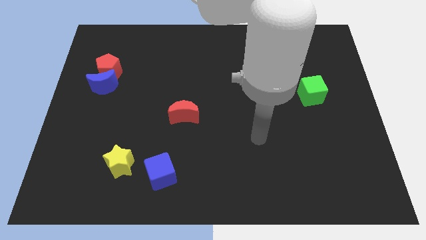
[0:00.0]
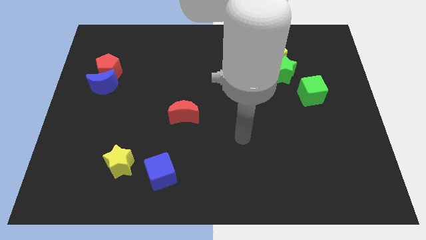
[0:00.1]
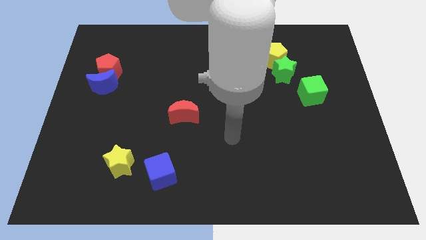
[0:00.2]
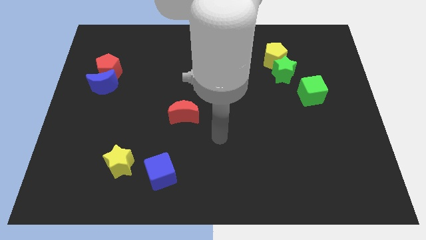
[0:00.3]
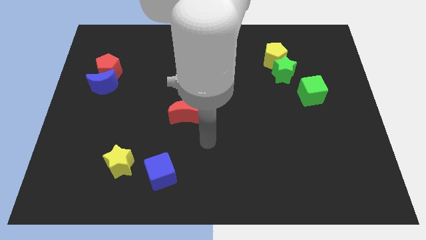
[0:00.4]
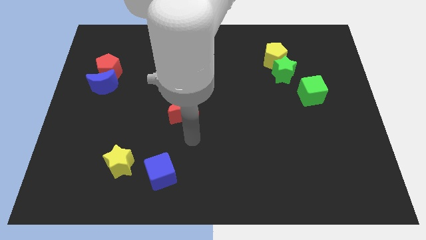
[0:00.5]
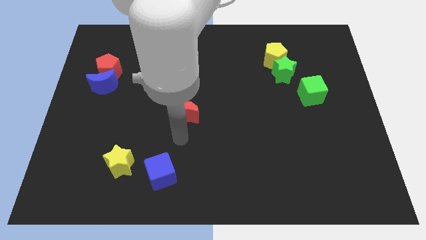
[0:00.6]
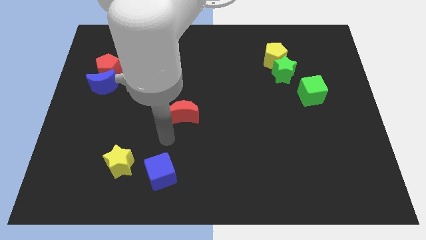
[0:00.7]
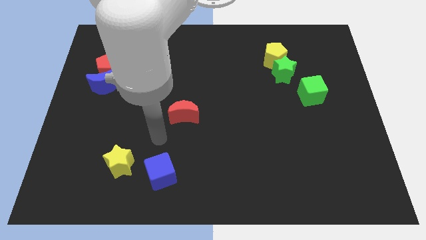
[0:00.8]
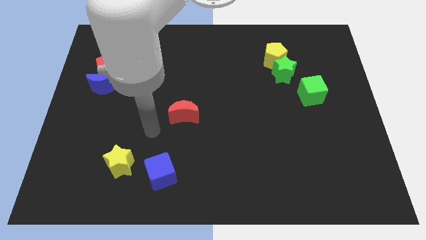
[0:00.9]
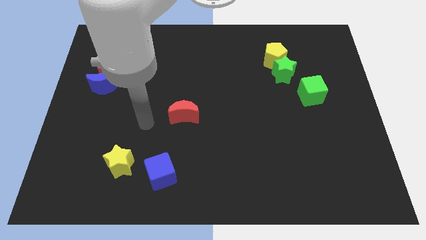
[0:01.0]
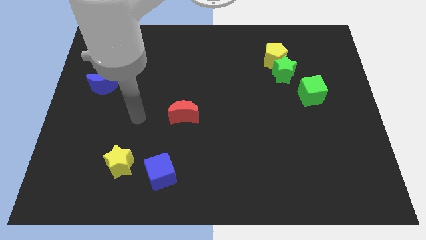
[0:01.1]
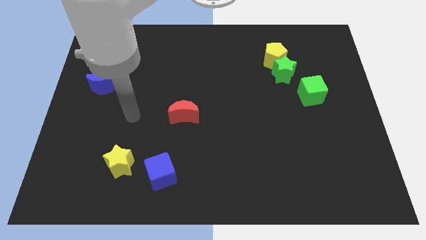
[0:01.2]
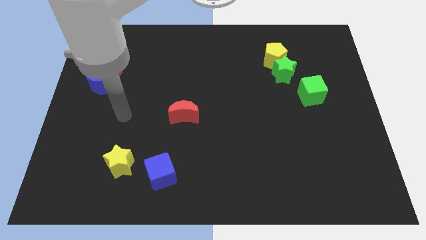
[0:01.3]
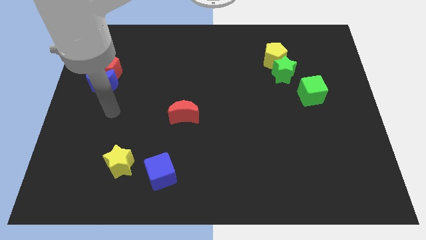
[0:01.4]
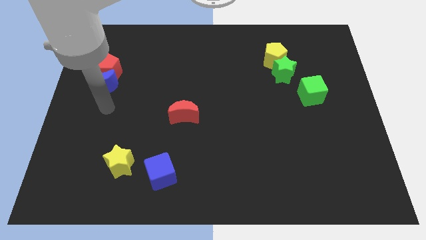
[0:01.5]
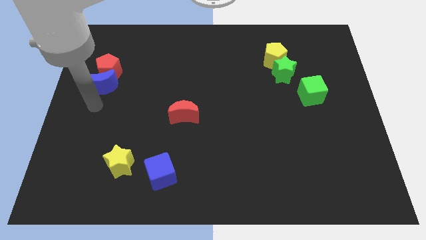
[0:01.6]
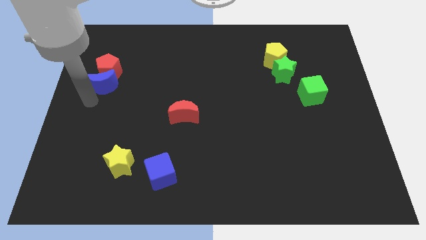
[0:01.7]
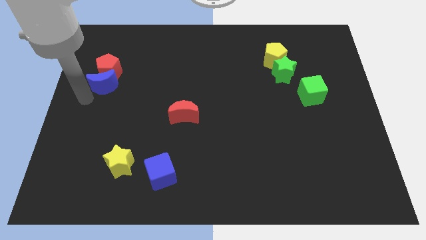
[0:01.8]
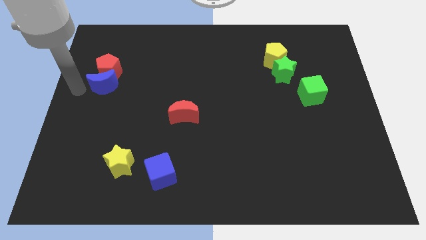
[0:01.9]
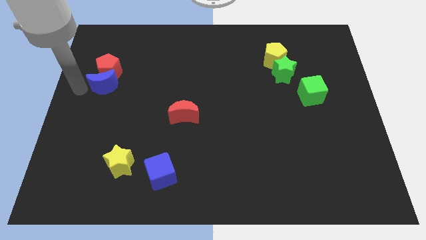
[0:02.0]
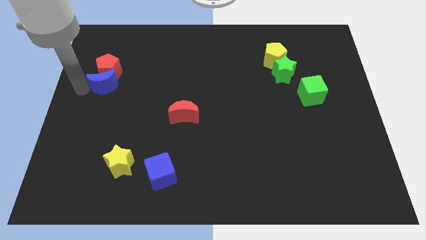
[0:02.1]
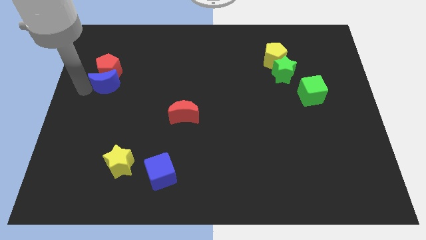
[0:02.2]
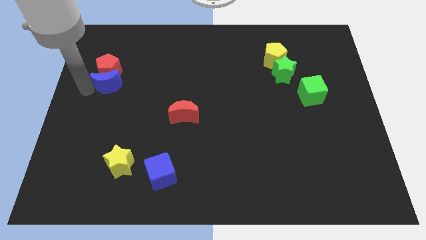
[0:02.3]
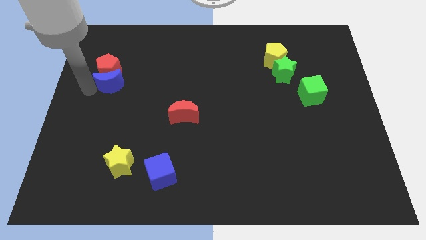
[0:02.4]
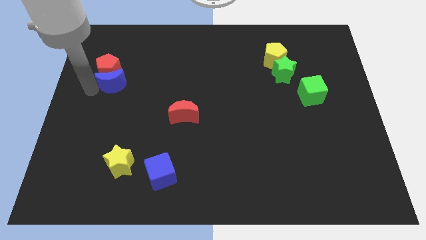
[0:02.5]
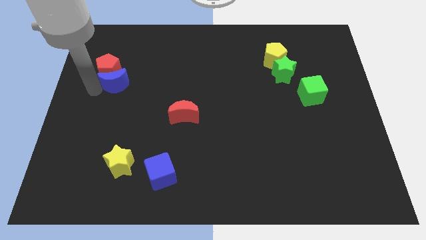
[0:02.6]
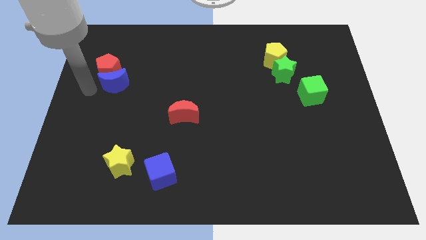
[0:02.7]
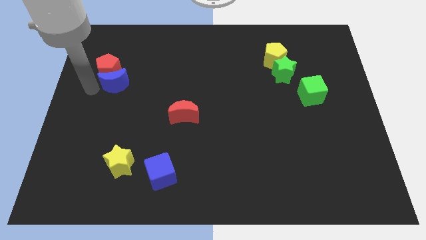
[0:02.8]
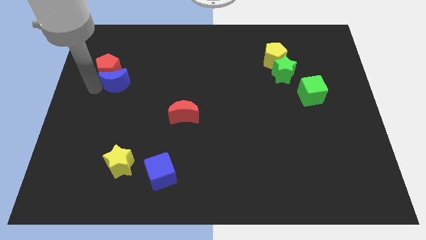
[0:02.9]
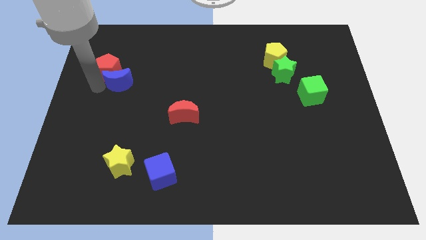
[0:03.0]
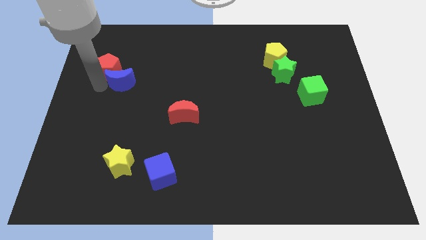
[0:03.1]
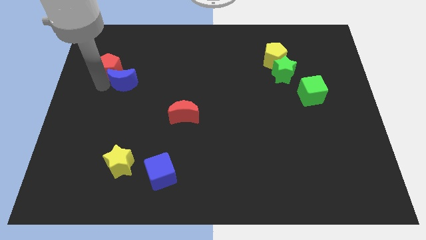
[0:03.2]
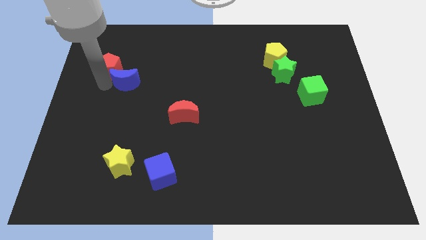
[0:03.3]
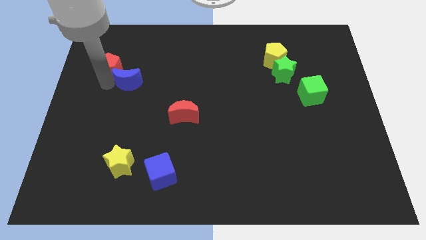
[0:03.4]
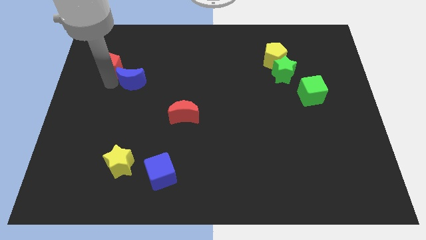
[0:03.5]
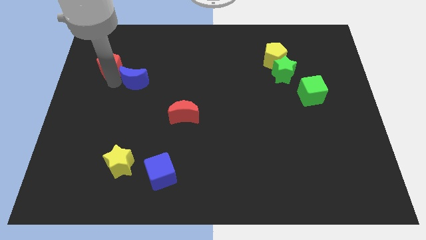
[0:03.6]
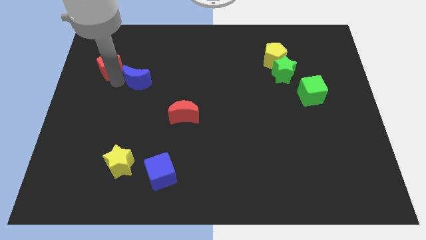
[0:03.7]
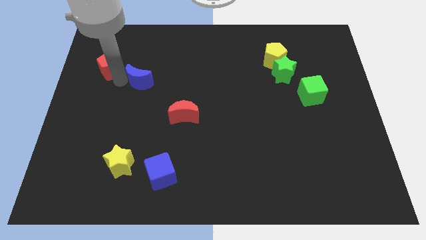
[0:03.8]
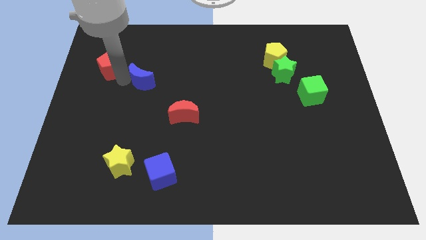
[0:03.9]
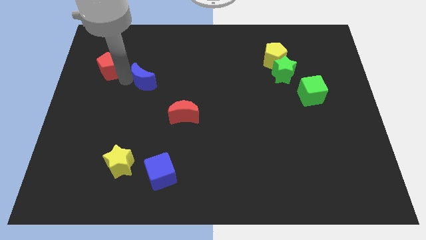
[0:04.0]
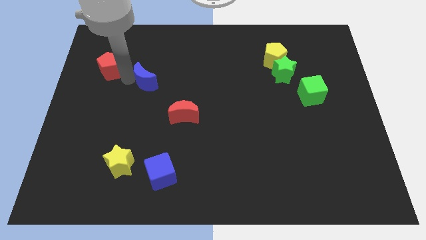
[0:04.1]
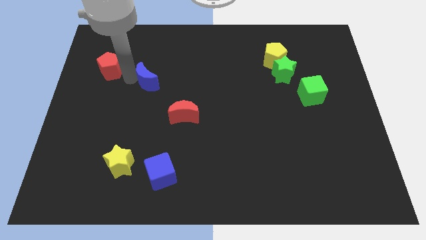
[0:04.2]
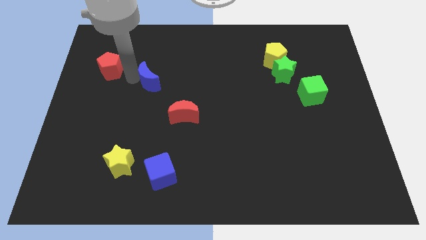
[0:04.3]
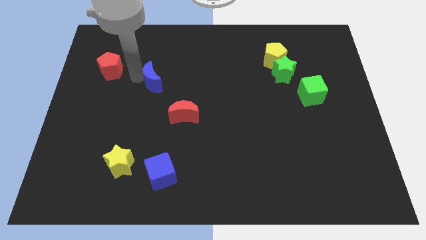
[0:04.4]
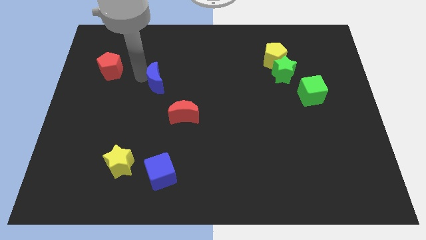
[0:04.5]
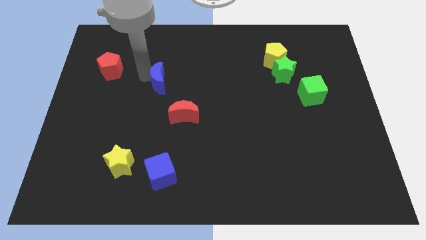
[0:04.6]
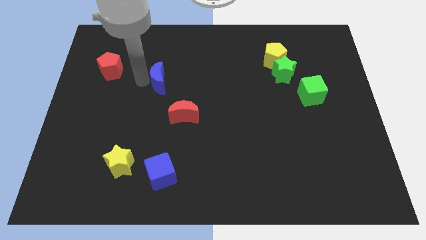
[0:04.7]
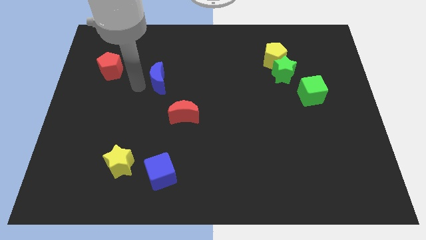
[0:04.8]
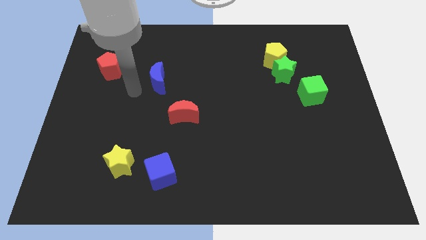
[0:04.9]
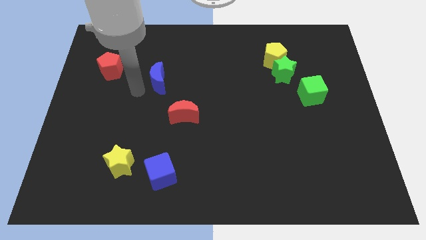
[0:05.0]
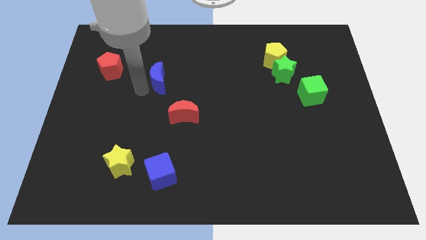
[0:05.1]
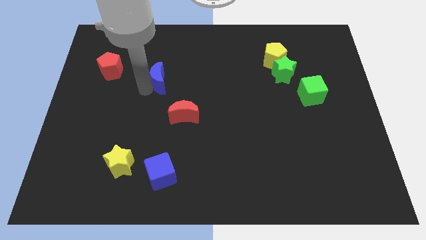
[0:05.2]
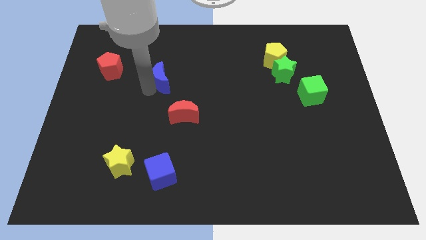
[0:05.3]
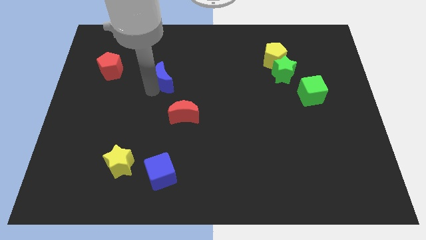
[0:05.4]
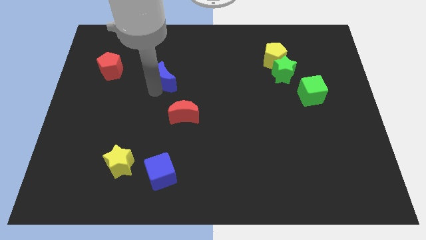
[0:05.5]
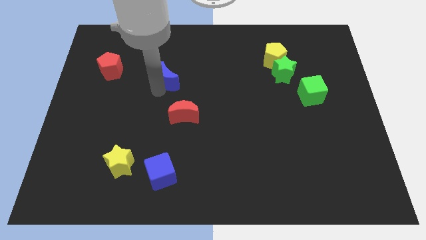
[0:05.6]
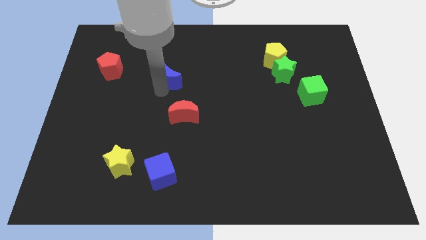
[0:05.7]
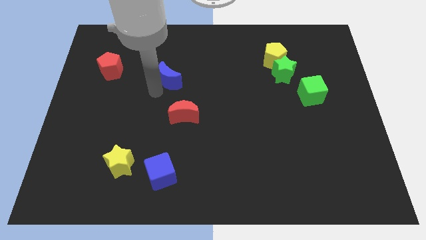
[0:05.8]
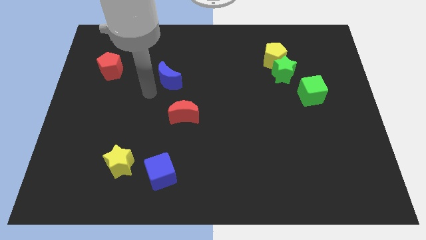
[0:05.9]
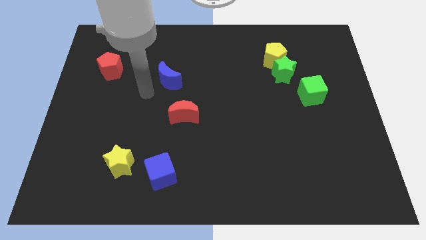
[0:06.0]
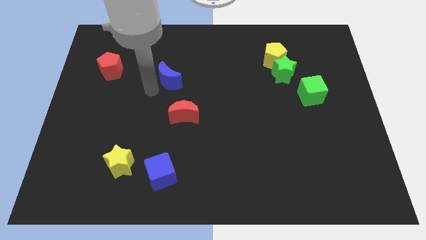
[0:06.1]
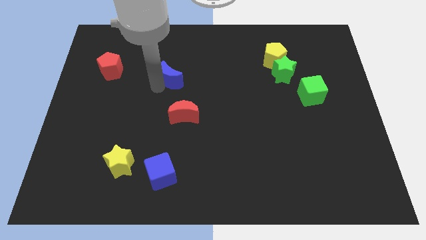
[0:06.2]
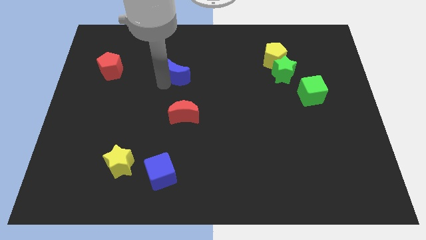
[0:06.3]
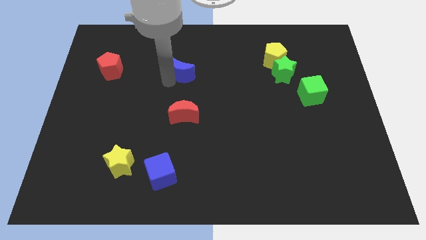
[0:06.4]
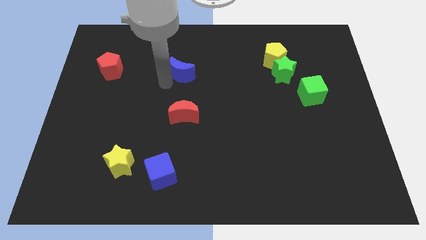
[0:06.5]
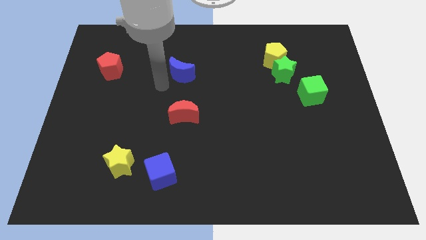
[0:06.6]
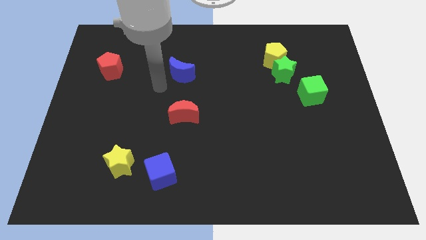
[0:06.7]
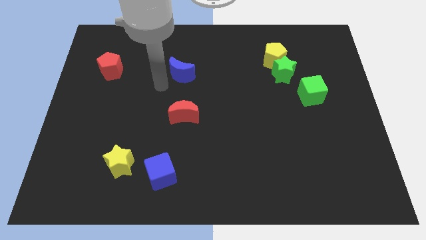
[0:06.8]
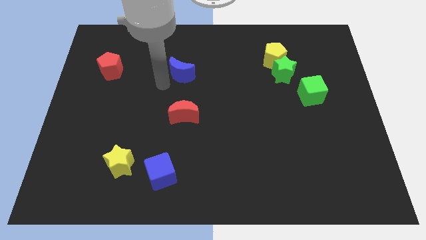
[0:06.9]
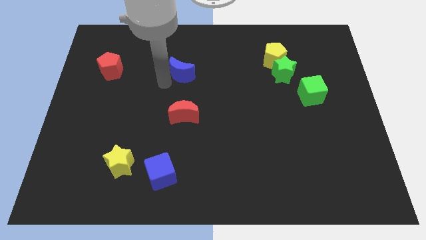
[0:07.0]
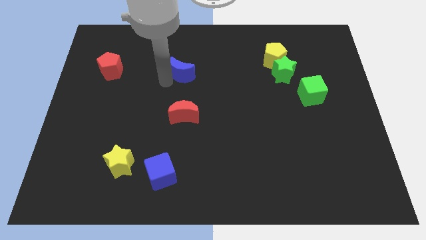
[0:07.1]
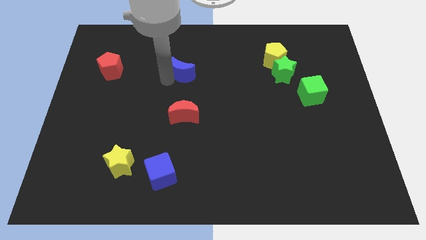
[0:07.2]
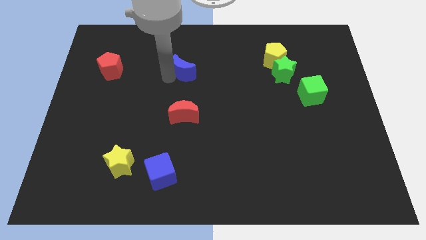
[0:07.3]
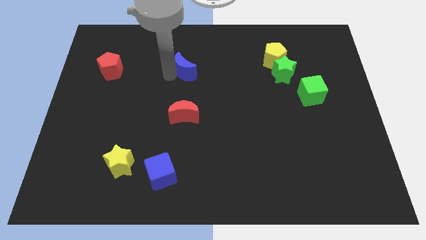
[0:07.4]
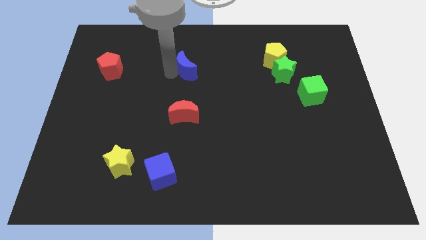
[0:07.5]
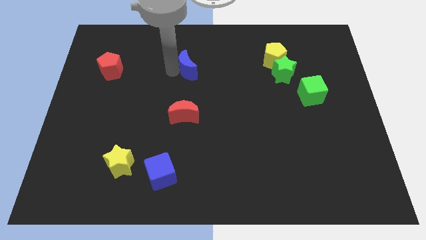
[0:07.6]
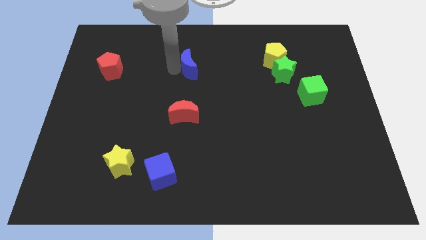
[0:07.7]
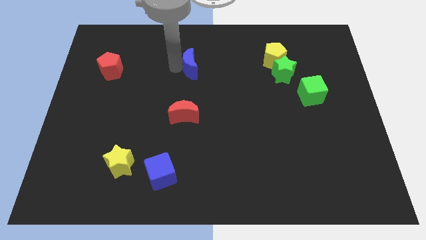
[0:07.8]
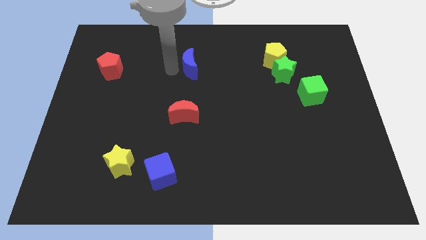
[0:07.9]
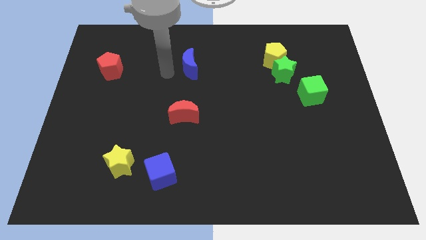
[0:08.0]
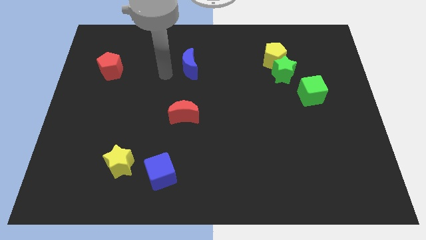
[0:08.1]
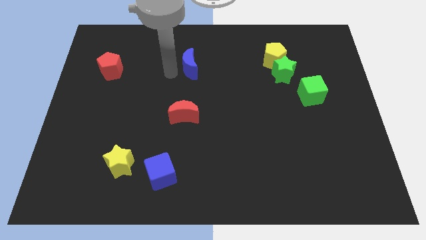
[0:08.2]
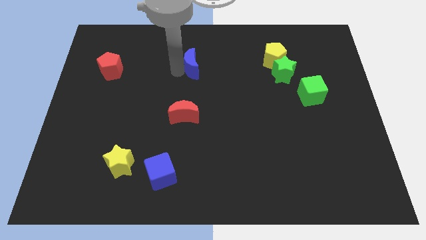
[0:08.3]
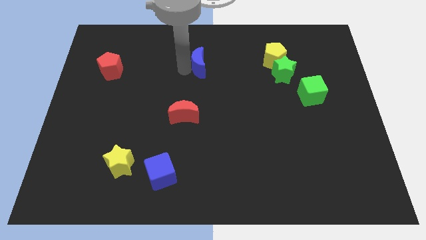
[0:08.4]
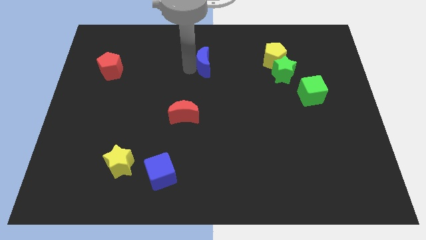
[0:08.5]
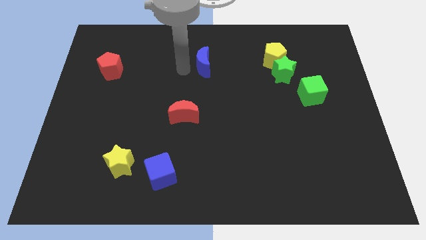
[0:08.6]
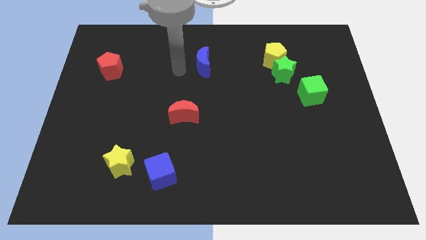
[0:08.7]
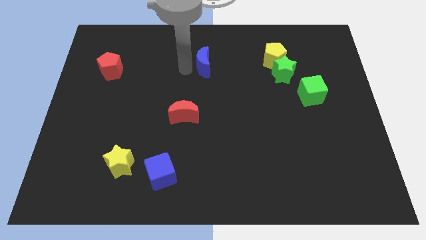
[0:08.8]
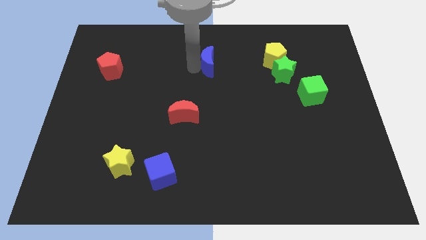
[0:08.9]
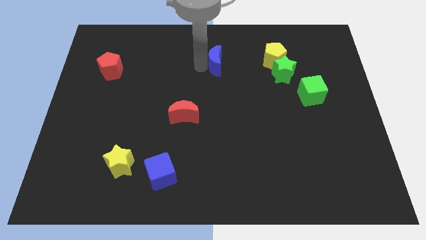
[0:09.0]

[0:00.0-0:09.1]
move the blue moon to the left of the yellow pentagon
